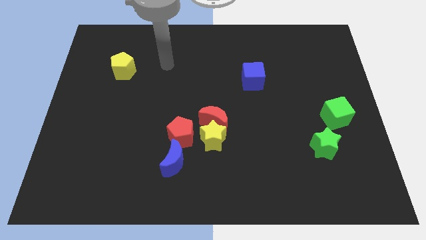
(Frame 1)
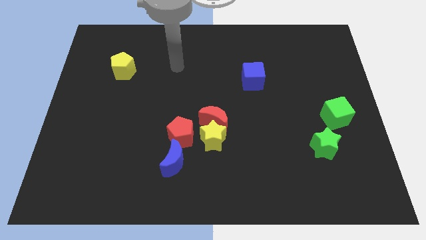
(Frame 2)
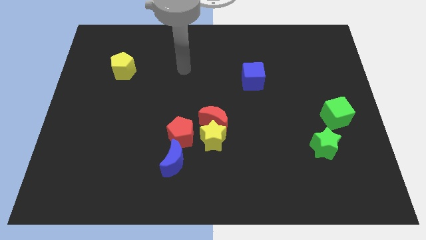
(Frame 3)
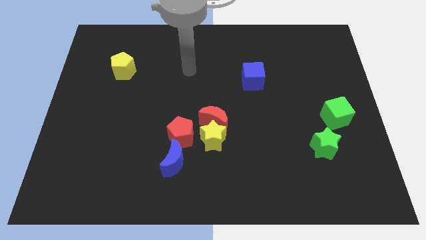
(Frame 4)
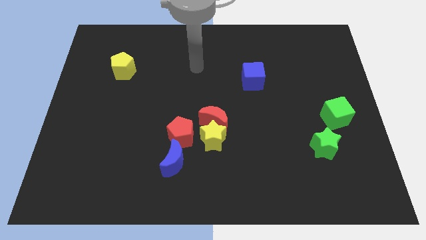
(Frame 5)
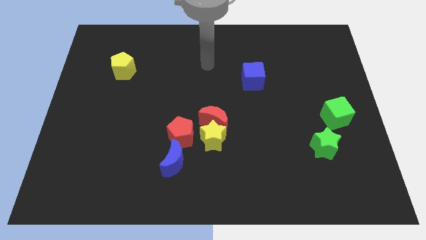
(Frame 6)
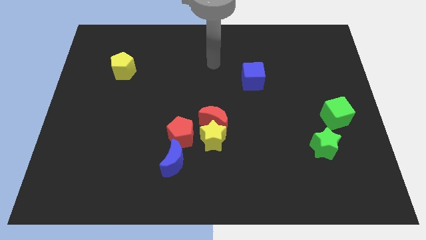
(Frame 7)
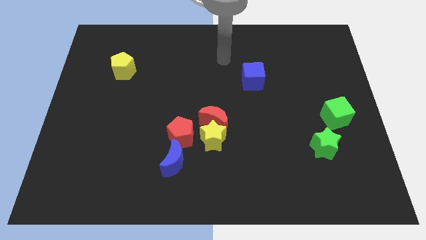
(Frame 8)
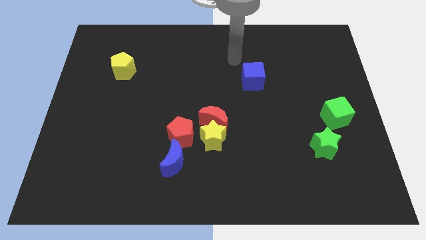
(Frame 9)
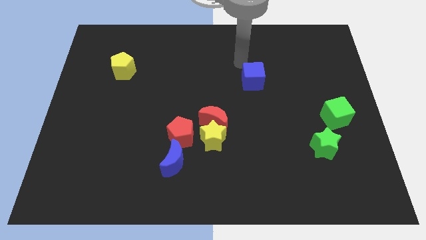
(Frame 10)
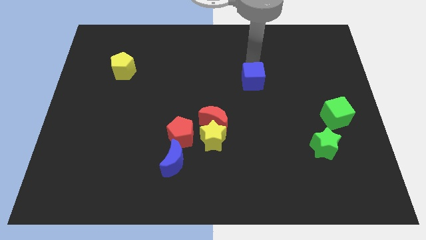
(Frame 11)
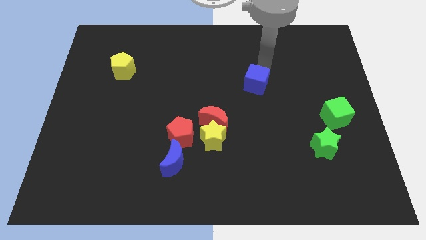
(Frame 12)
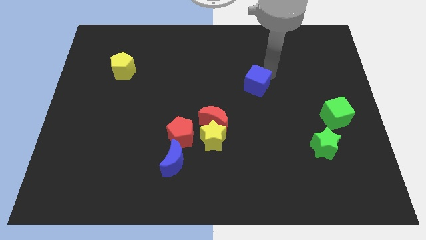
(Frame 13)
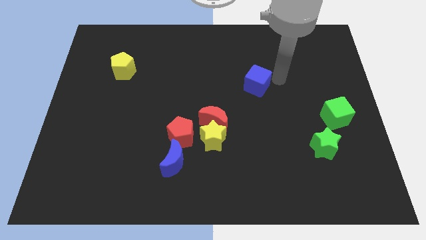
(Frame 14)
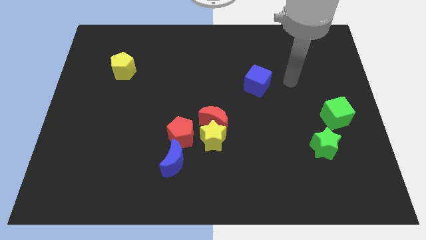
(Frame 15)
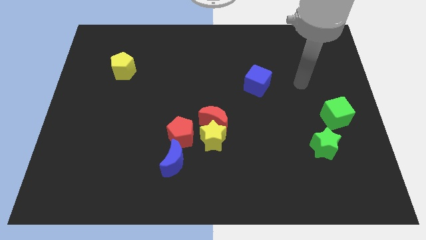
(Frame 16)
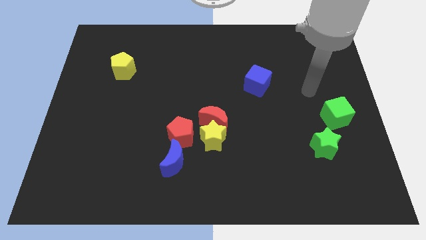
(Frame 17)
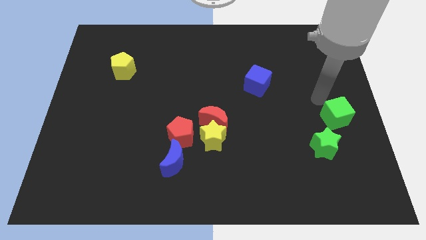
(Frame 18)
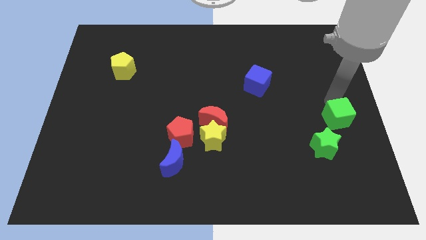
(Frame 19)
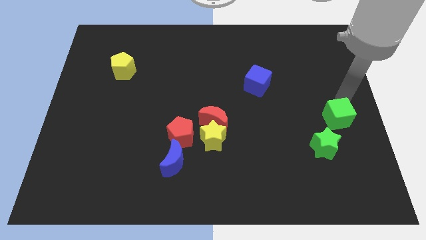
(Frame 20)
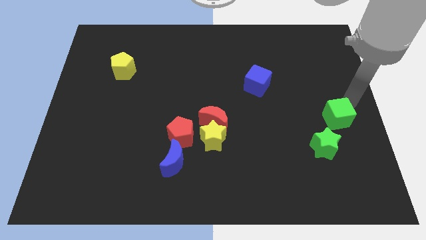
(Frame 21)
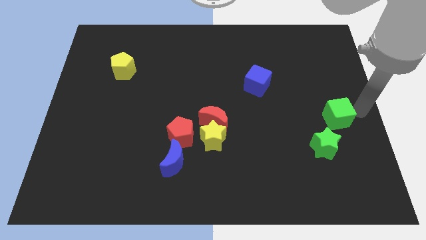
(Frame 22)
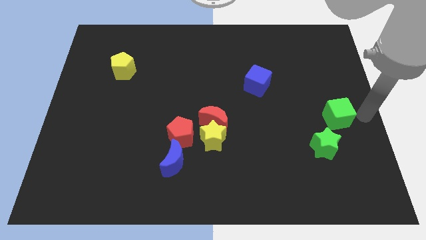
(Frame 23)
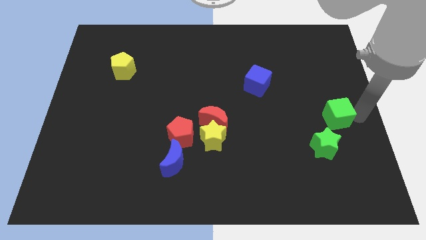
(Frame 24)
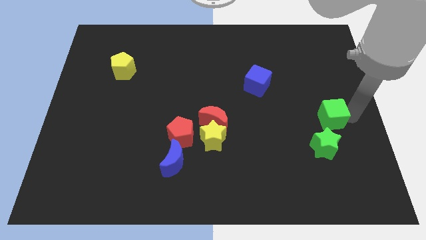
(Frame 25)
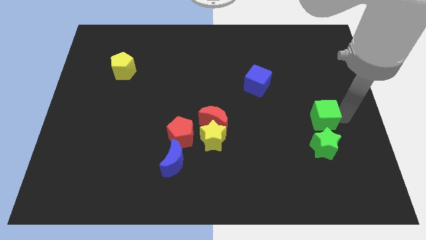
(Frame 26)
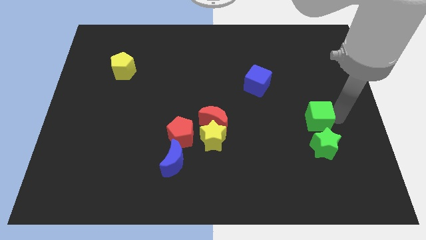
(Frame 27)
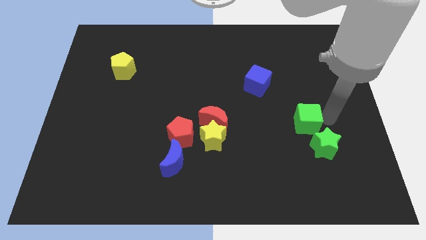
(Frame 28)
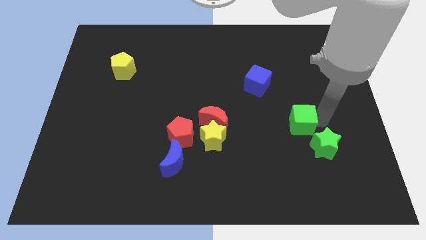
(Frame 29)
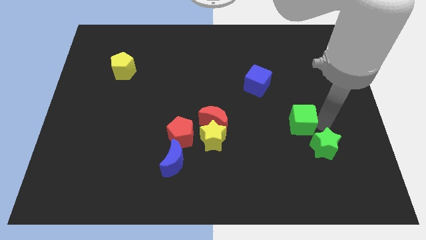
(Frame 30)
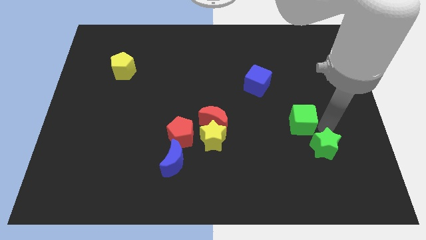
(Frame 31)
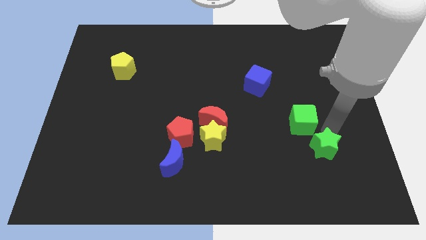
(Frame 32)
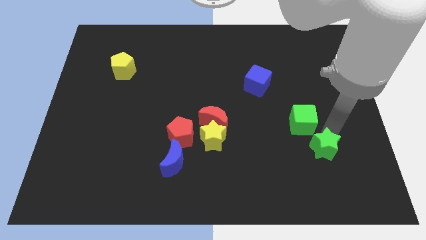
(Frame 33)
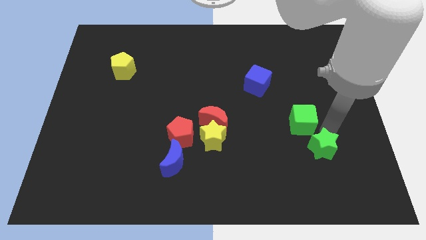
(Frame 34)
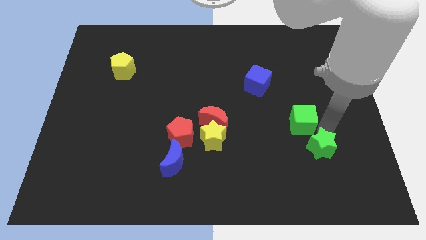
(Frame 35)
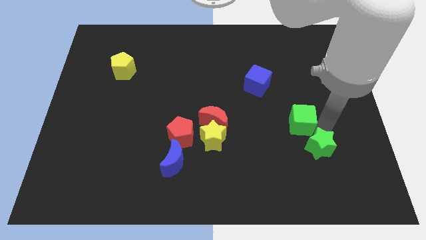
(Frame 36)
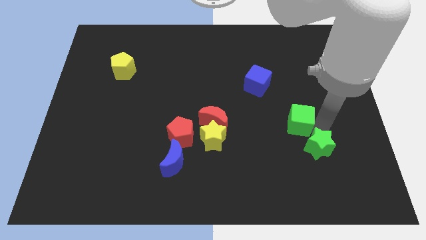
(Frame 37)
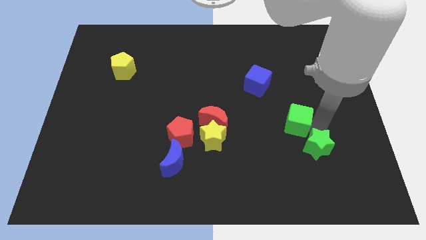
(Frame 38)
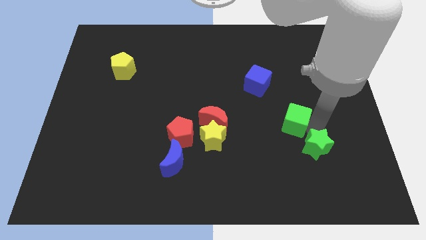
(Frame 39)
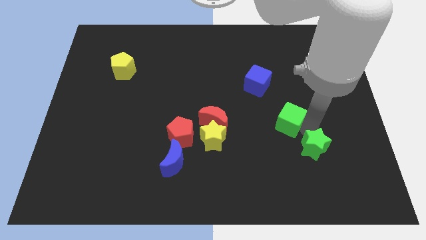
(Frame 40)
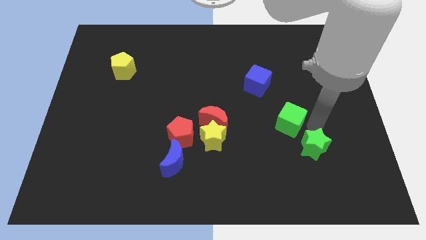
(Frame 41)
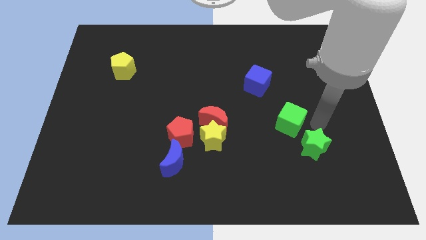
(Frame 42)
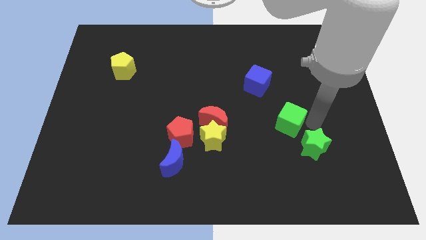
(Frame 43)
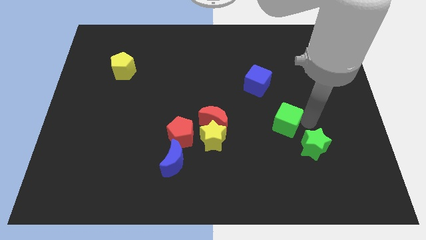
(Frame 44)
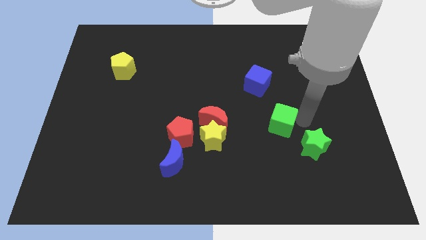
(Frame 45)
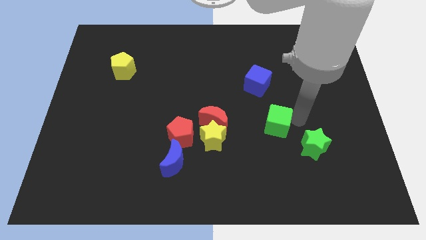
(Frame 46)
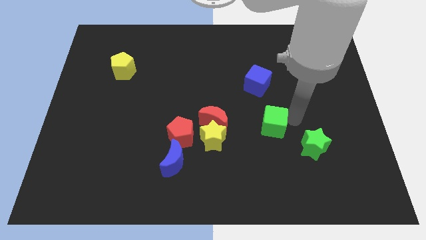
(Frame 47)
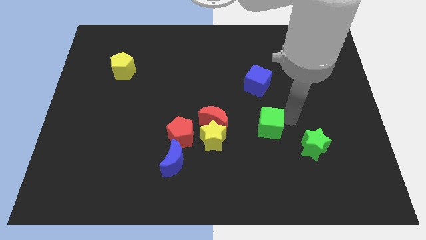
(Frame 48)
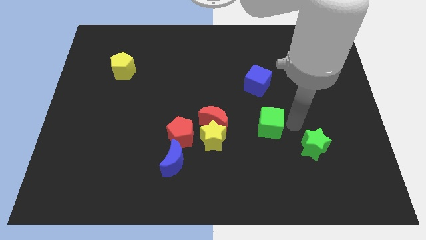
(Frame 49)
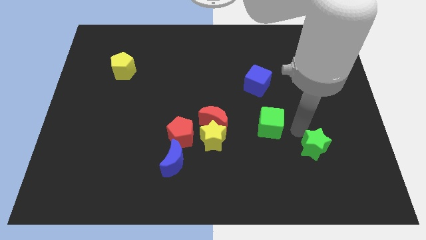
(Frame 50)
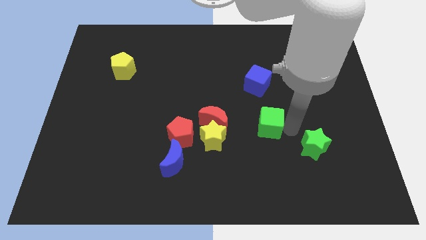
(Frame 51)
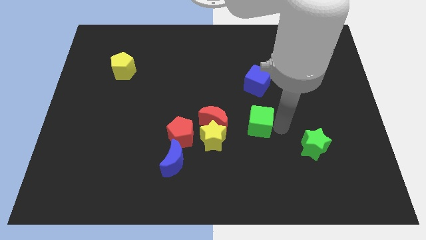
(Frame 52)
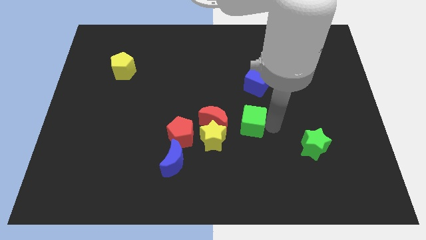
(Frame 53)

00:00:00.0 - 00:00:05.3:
push the green cube diagonally up and to the right of the yellow star
